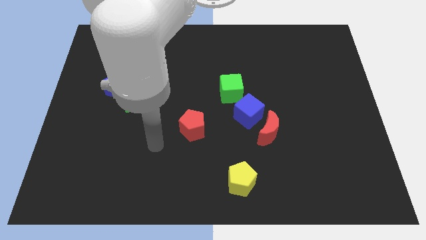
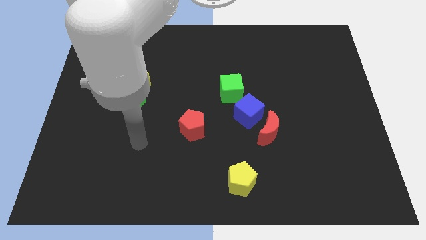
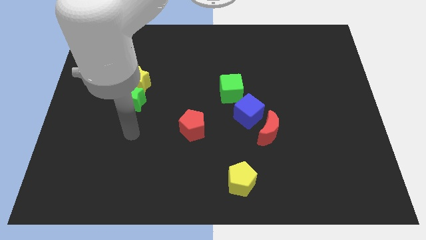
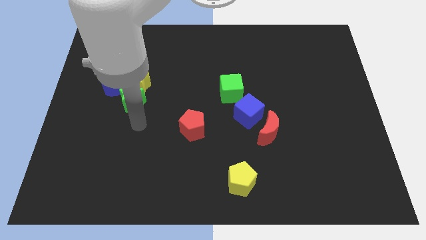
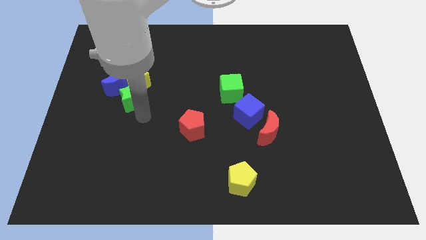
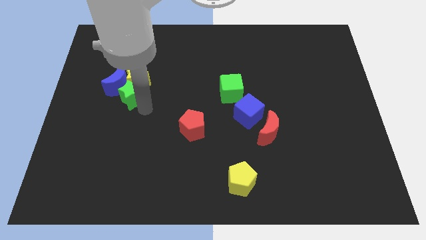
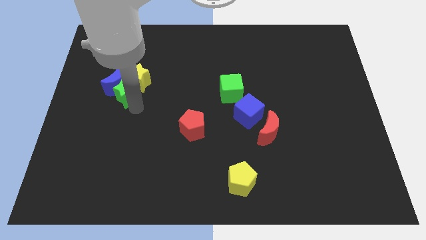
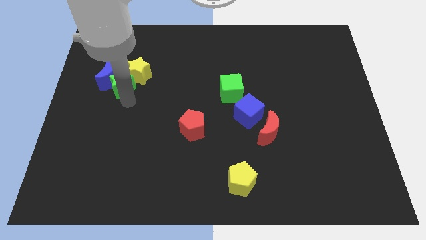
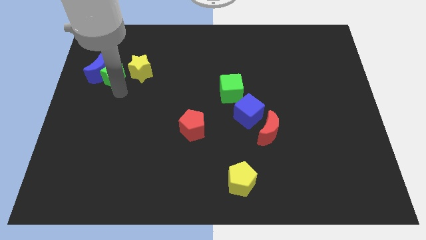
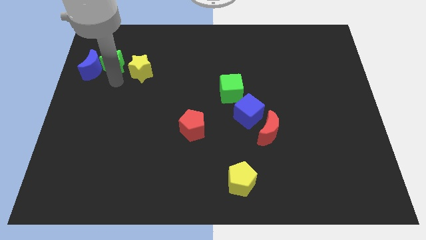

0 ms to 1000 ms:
move the yellow star away from the blue moon and green star

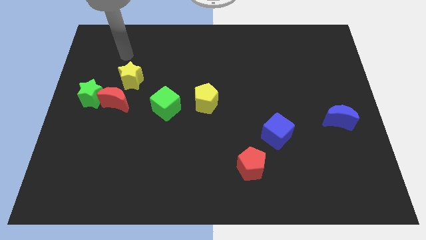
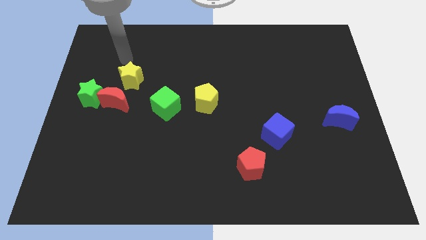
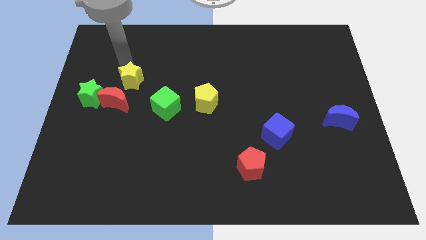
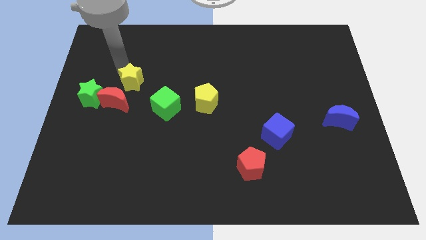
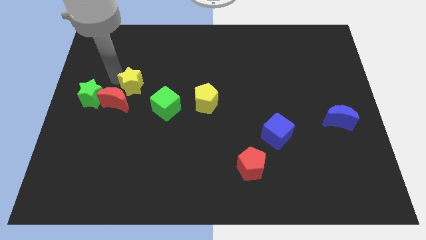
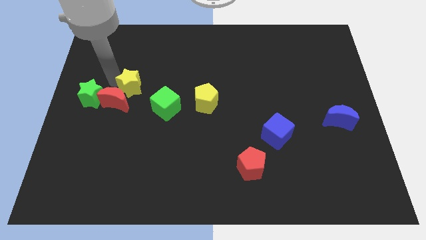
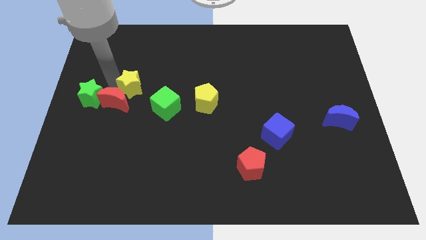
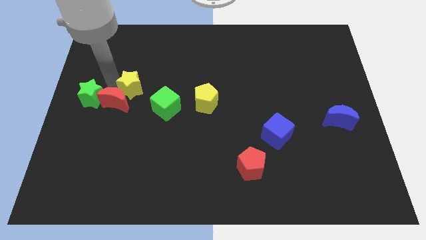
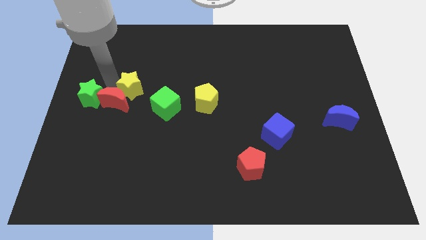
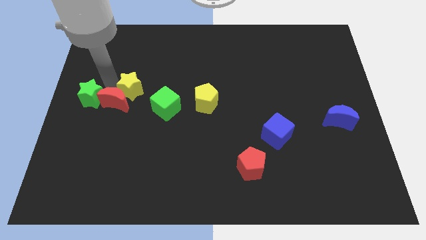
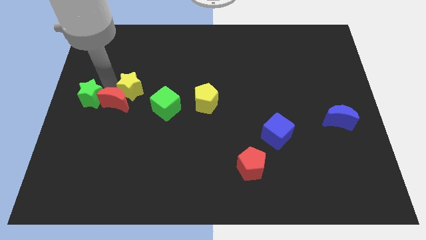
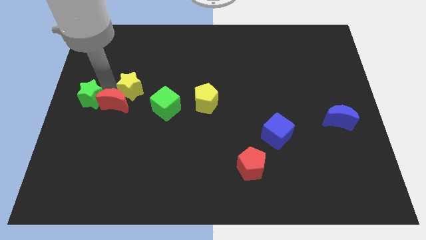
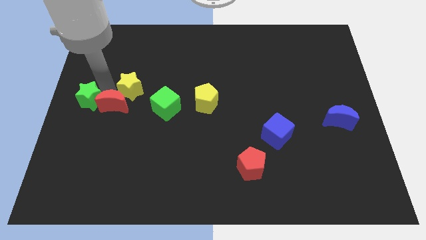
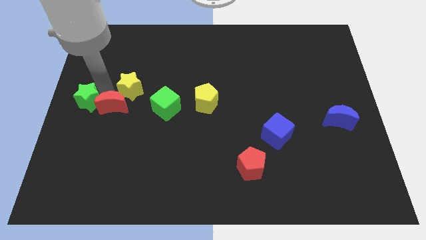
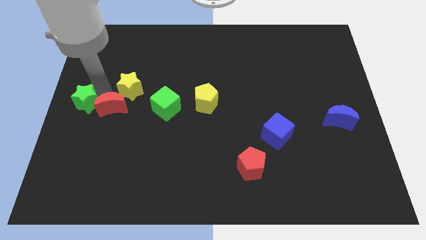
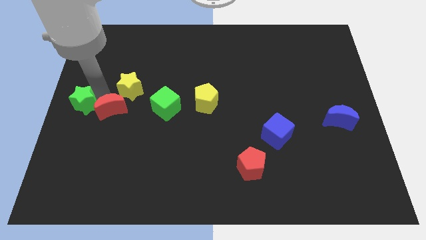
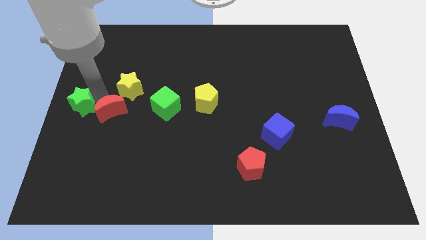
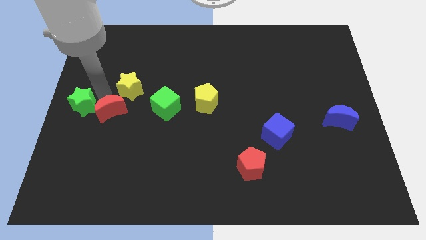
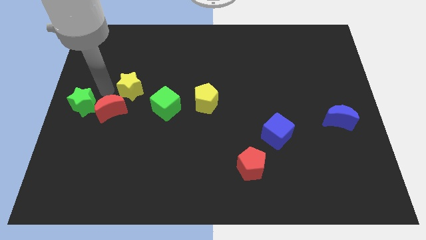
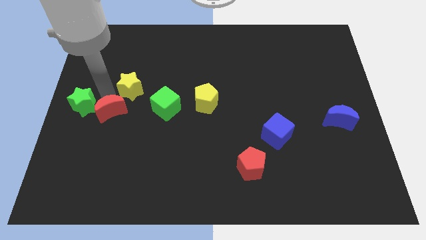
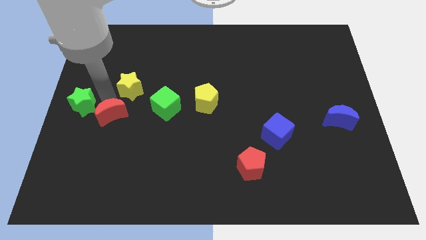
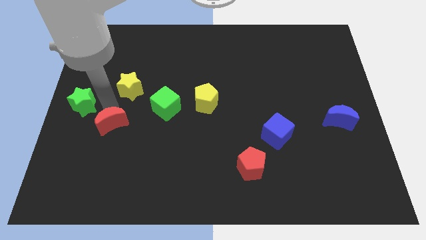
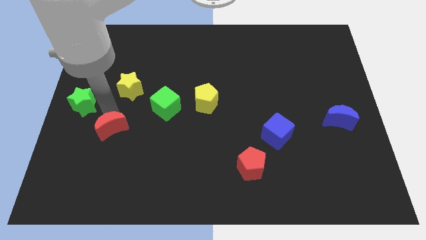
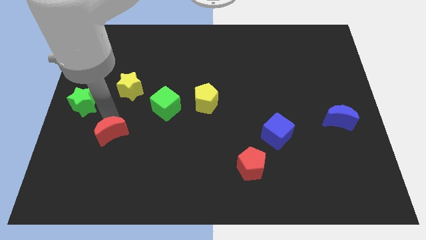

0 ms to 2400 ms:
move the red moon away from the green star and yellow star

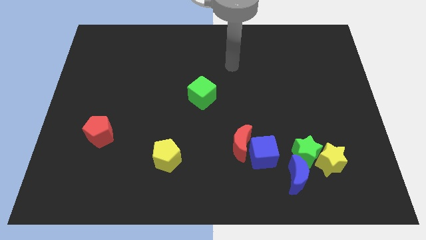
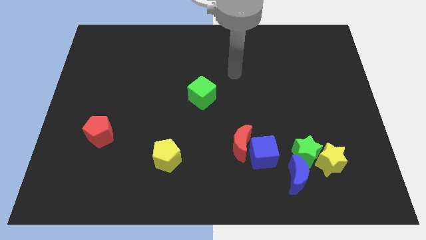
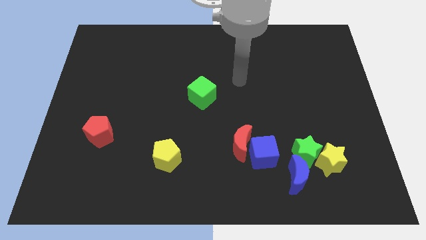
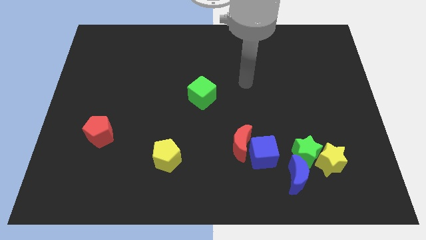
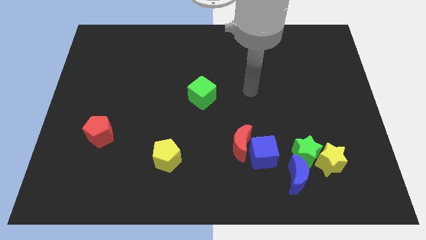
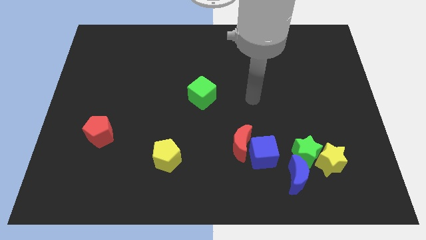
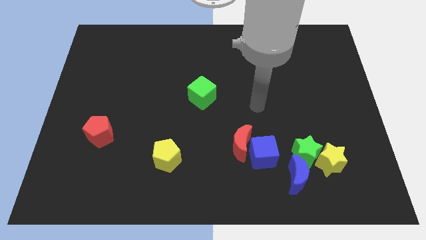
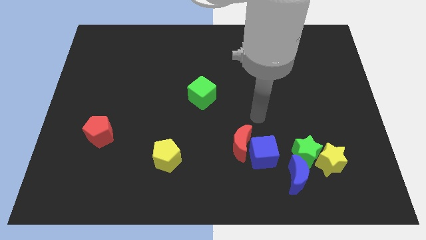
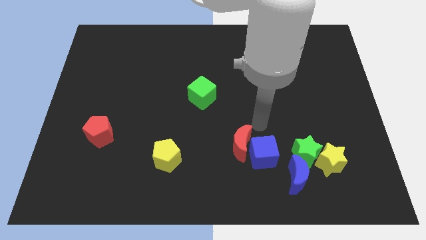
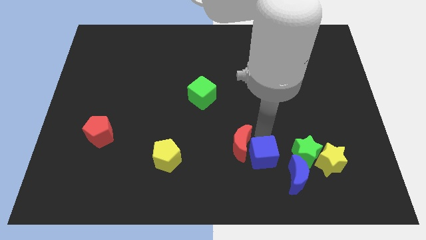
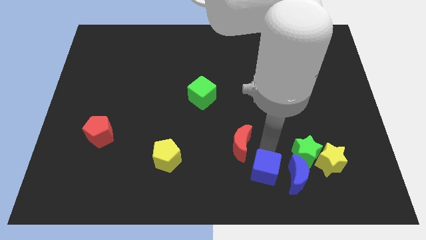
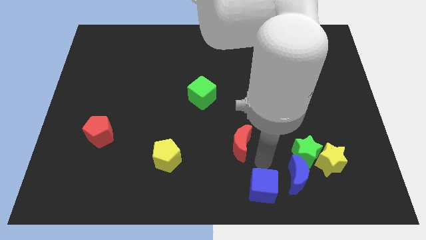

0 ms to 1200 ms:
separate the red moon from the blue cube

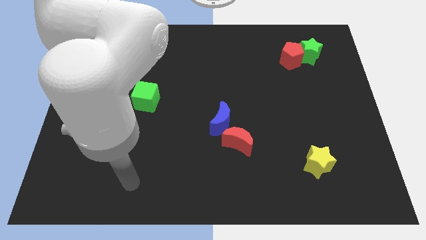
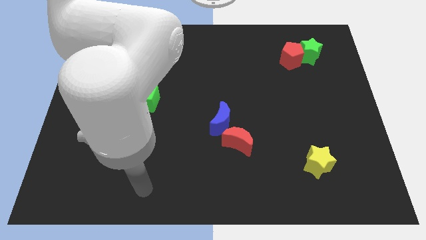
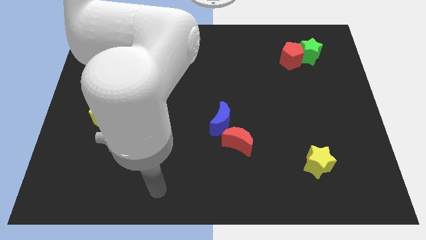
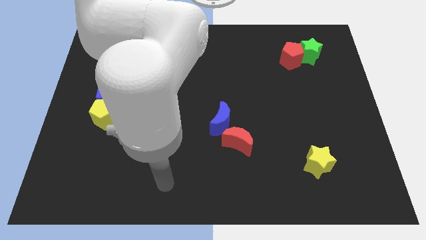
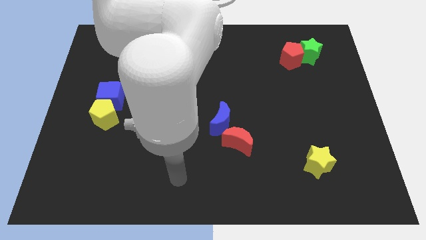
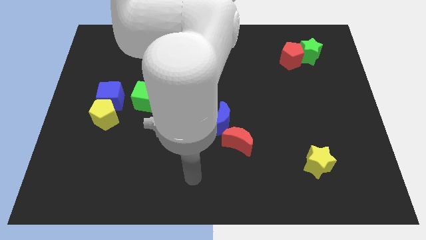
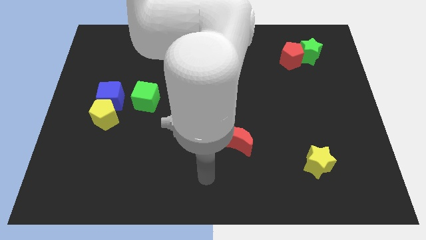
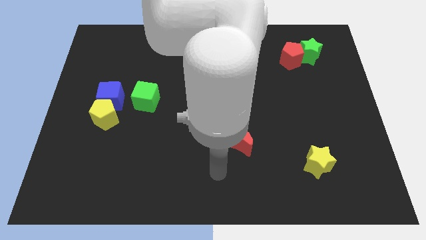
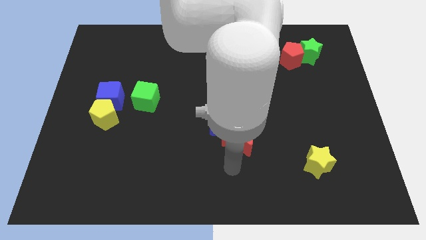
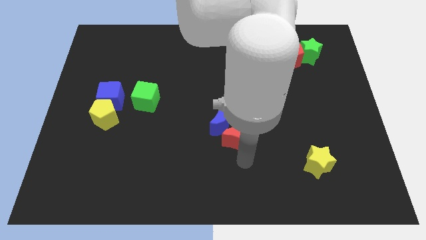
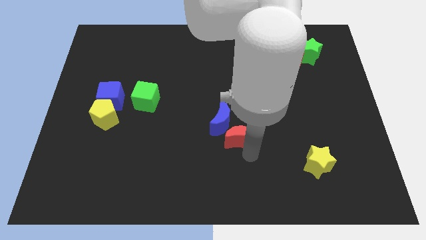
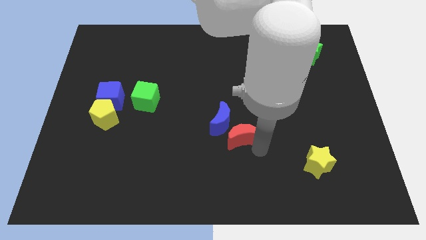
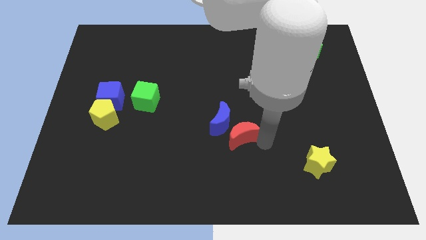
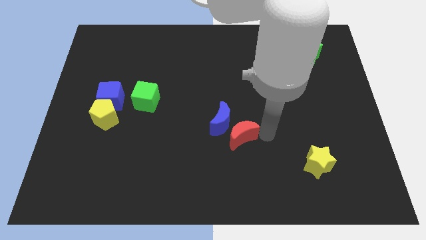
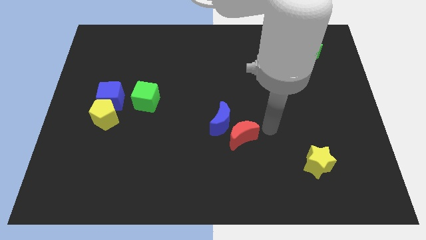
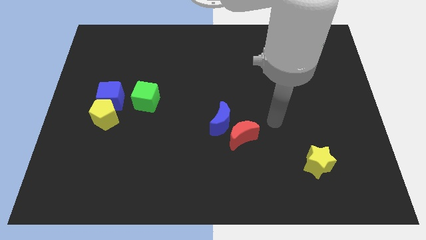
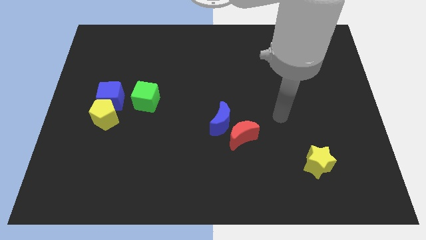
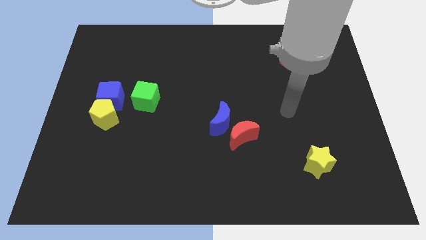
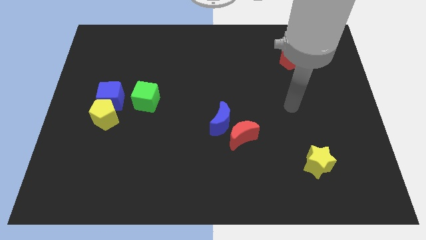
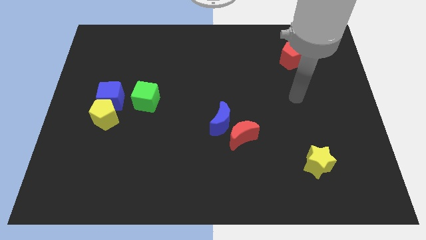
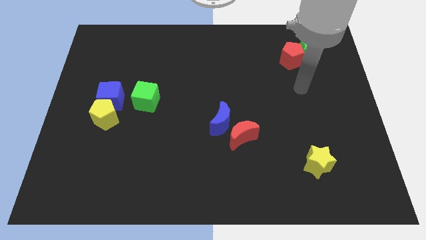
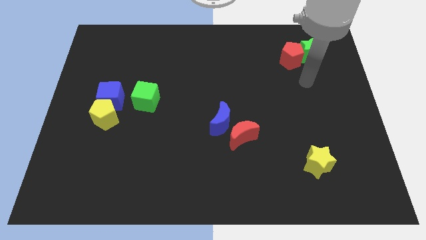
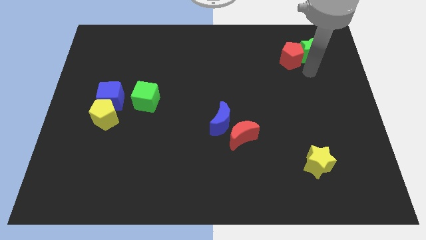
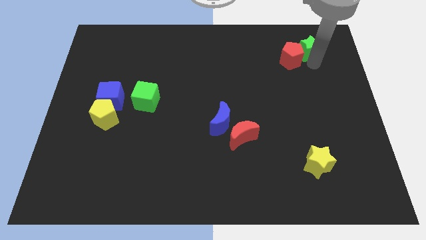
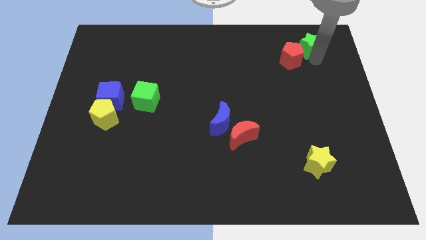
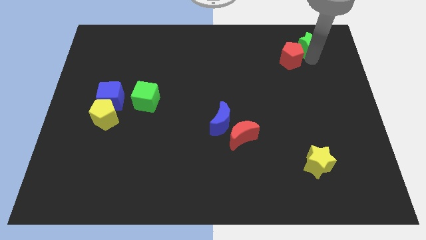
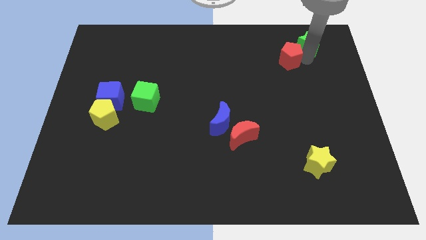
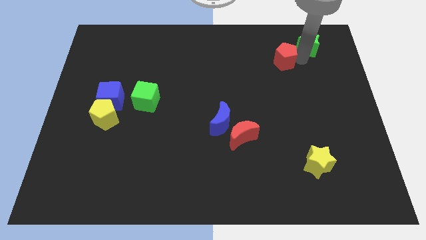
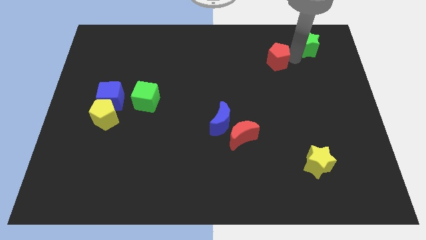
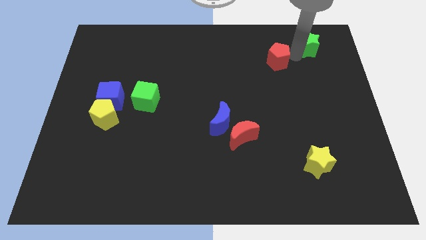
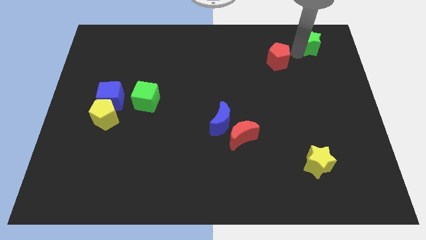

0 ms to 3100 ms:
pull the red pentagon apart from the green star

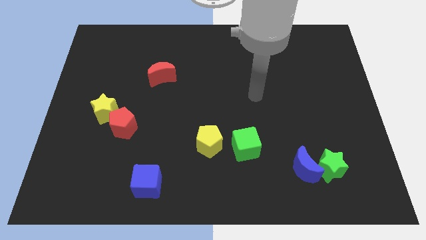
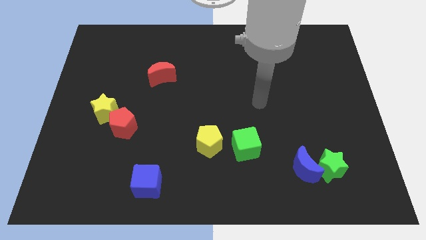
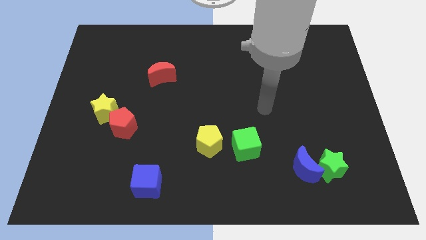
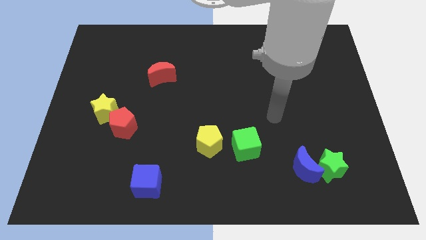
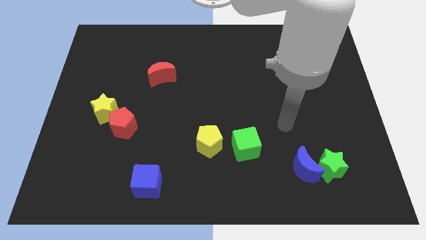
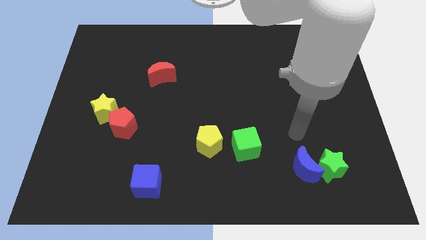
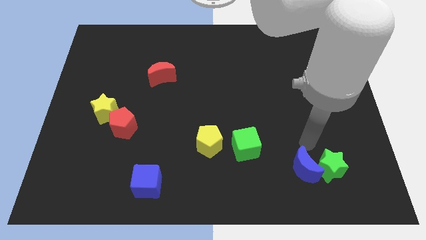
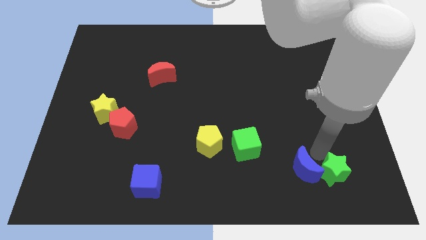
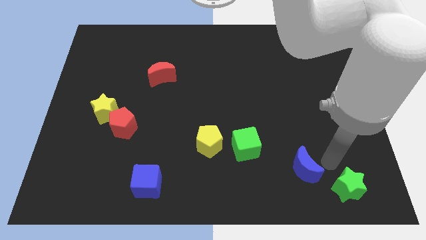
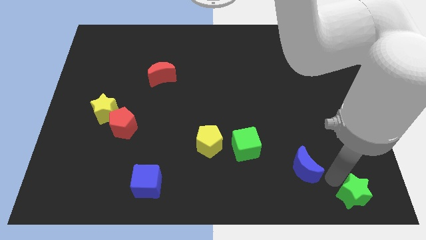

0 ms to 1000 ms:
pull the blue moon apart from the green star

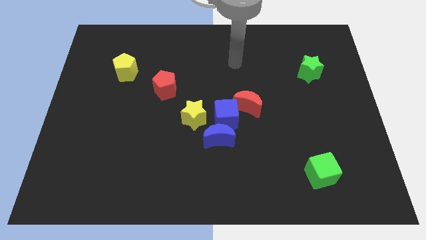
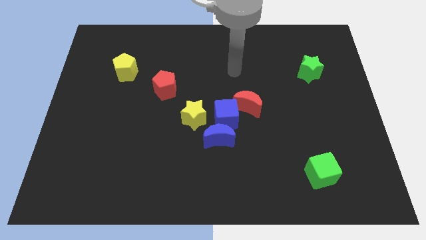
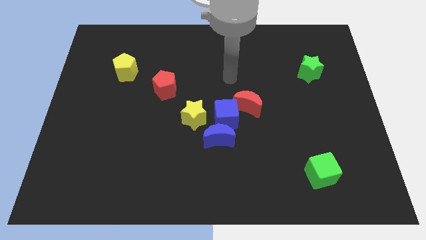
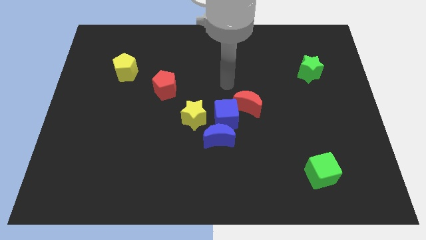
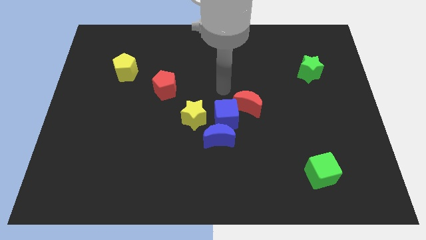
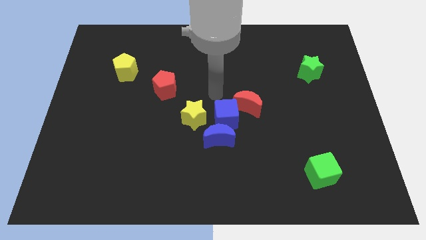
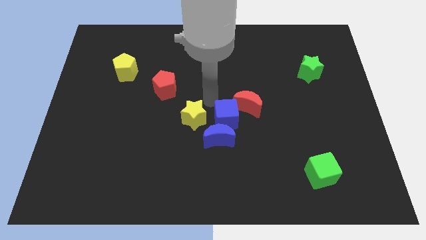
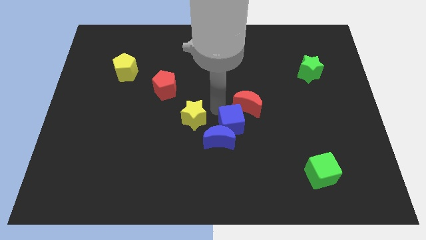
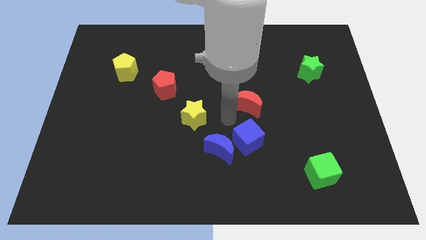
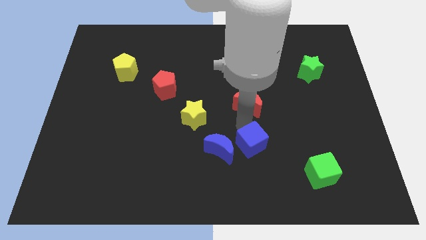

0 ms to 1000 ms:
move the red moon away from the blue cube
